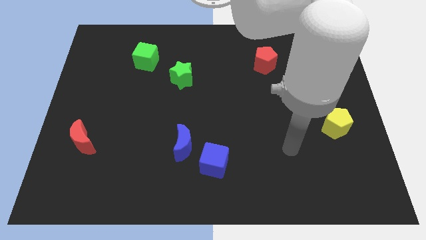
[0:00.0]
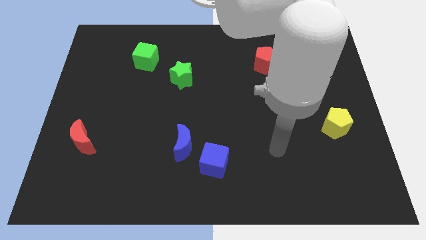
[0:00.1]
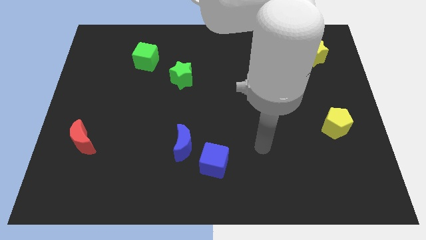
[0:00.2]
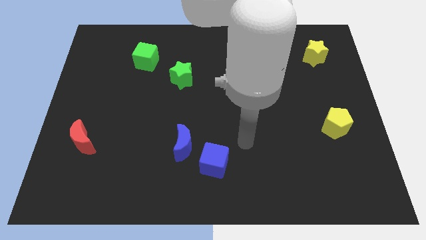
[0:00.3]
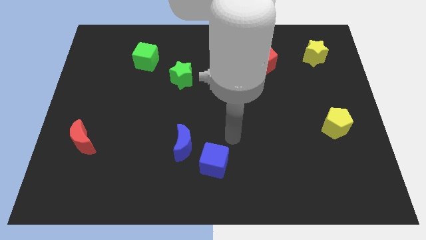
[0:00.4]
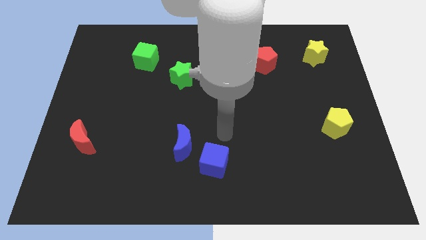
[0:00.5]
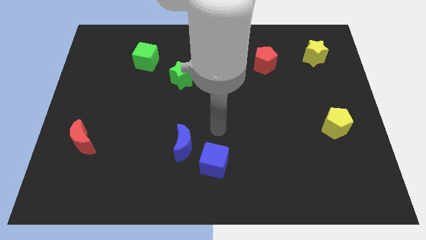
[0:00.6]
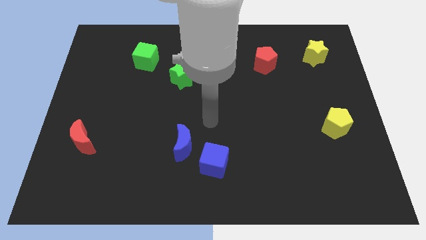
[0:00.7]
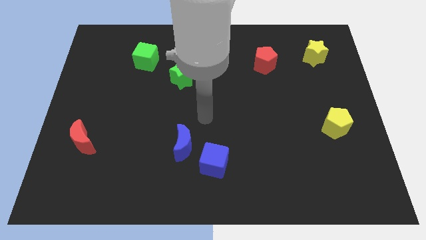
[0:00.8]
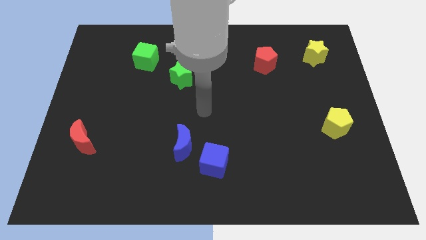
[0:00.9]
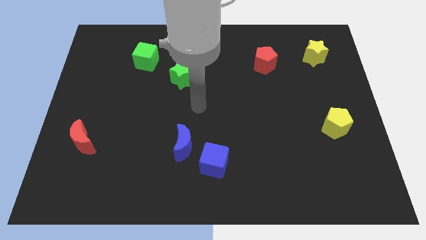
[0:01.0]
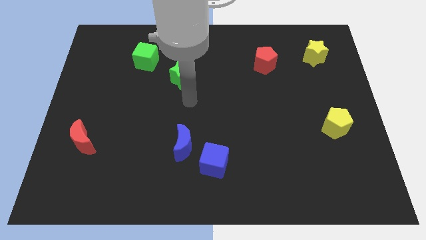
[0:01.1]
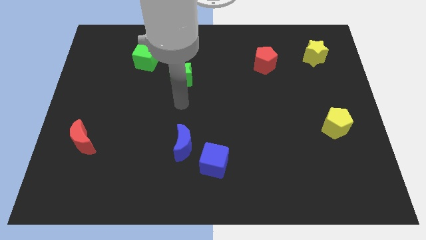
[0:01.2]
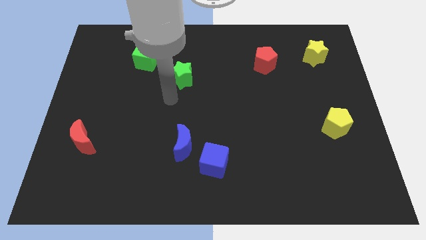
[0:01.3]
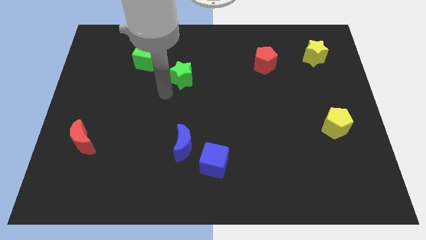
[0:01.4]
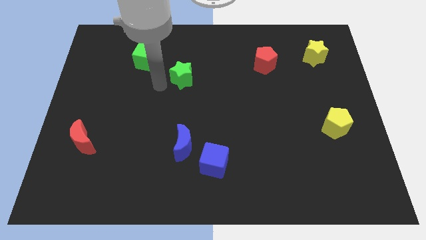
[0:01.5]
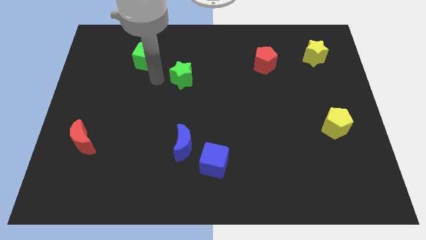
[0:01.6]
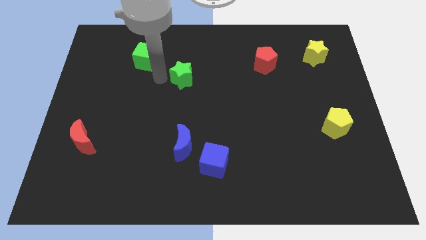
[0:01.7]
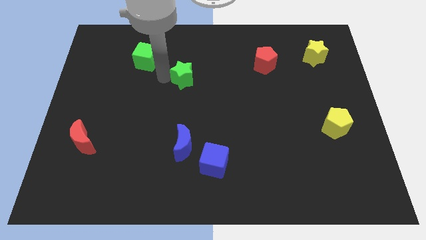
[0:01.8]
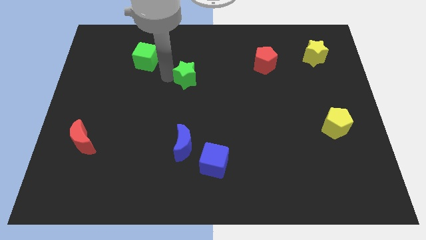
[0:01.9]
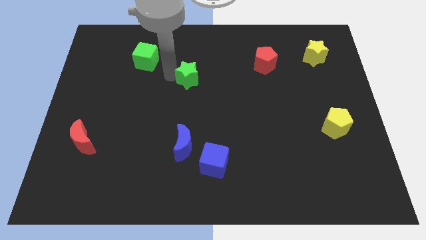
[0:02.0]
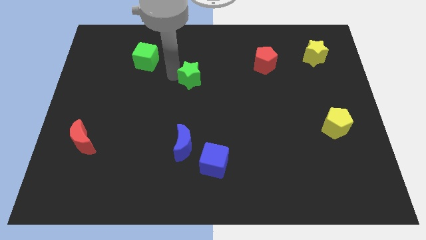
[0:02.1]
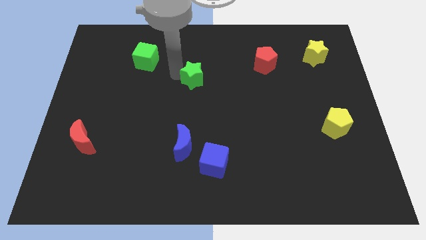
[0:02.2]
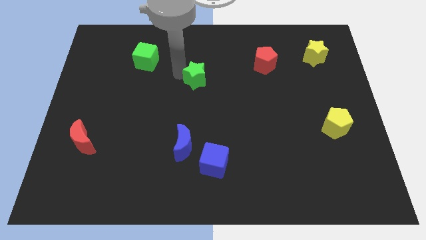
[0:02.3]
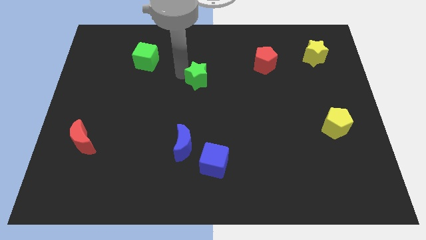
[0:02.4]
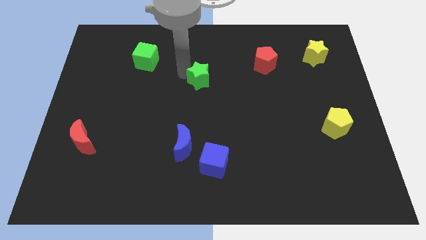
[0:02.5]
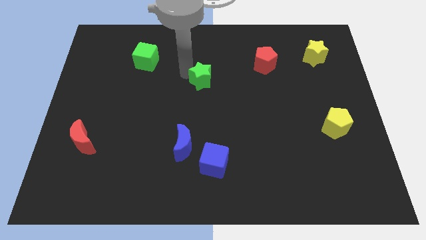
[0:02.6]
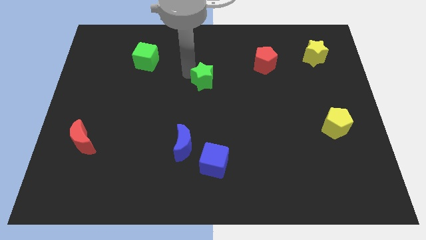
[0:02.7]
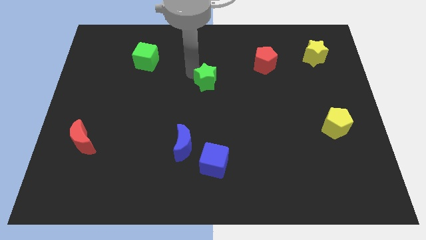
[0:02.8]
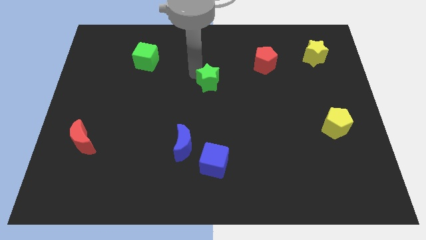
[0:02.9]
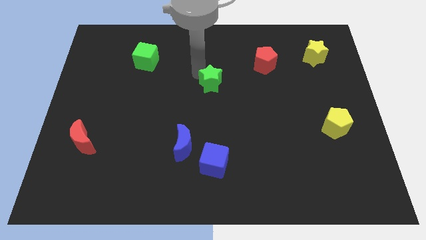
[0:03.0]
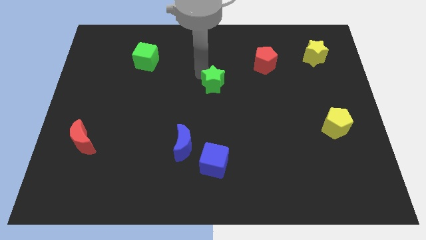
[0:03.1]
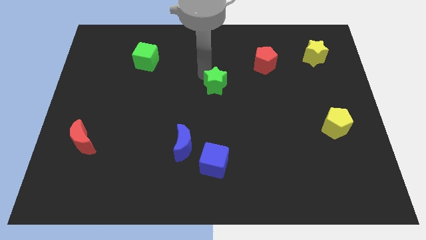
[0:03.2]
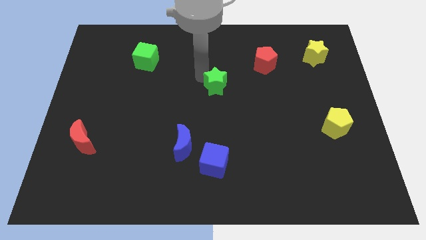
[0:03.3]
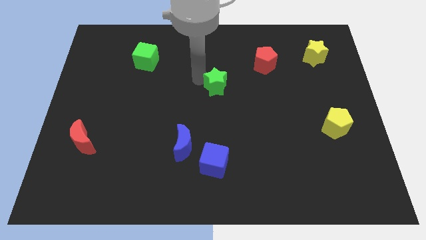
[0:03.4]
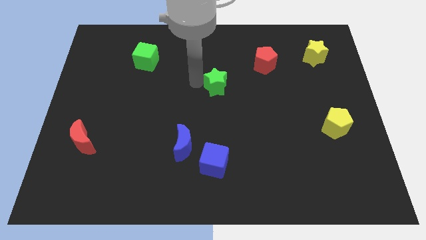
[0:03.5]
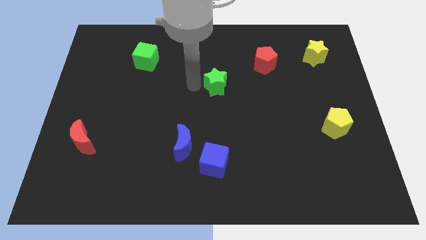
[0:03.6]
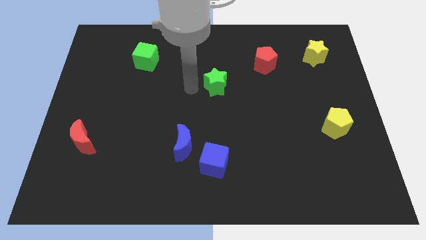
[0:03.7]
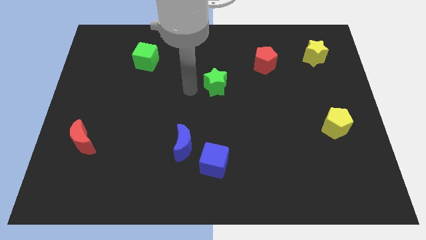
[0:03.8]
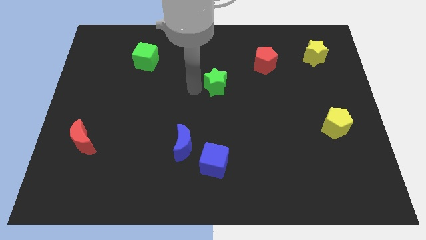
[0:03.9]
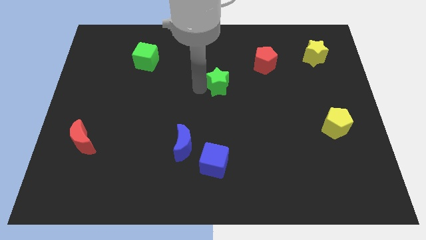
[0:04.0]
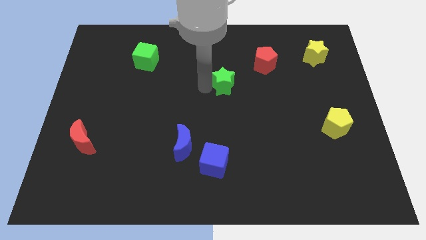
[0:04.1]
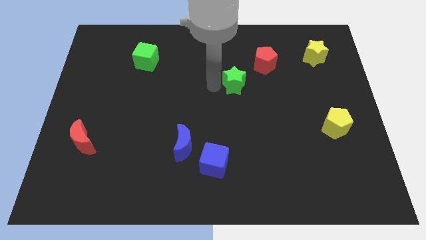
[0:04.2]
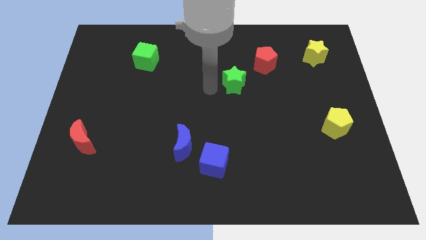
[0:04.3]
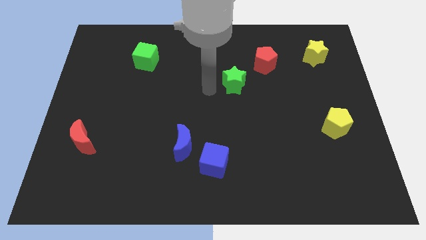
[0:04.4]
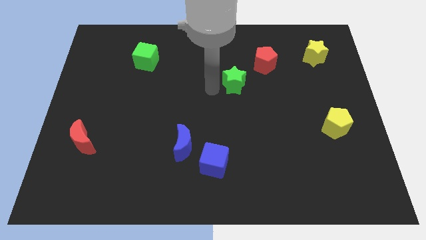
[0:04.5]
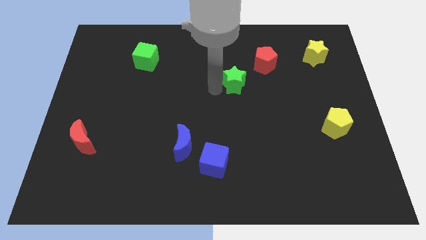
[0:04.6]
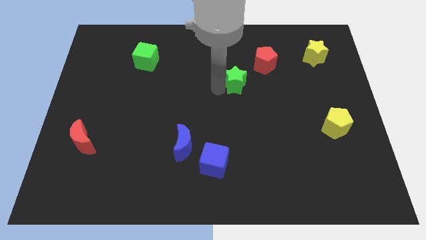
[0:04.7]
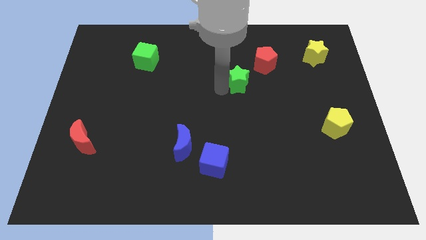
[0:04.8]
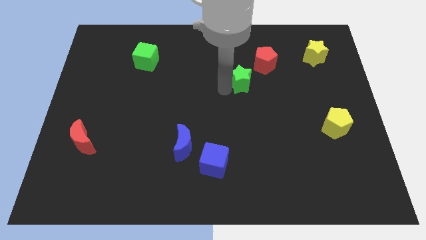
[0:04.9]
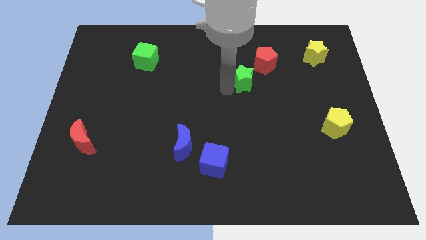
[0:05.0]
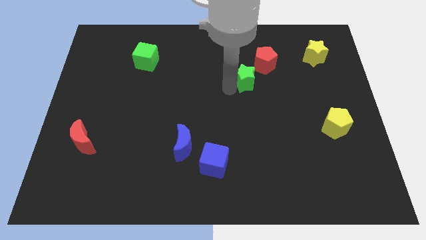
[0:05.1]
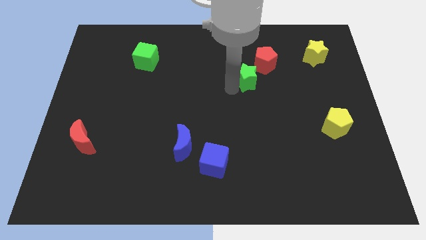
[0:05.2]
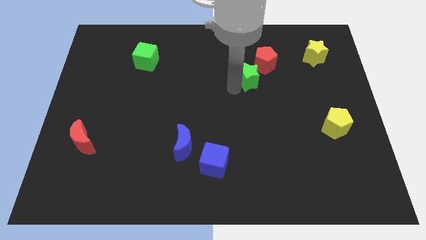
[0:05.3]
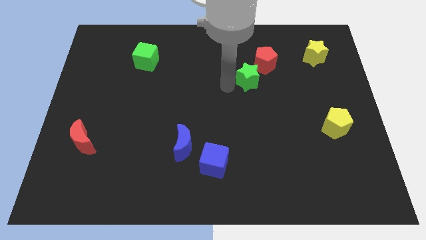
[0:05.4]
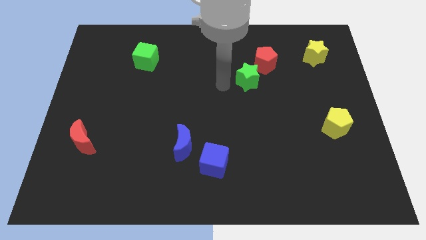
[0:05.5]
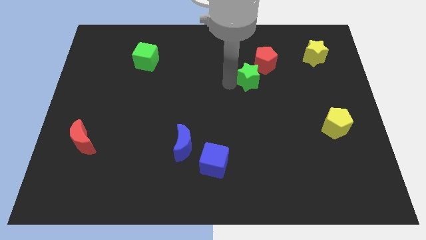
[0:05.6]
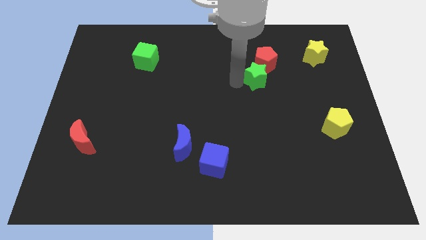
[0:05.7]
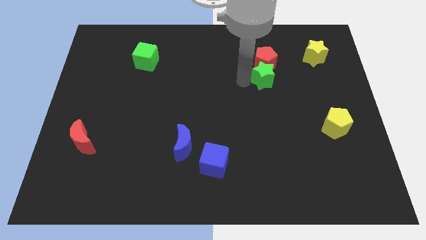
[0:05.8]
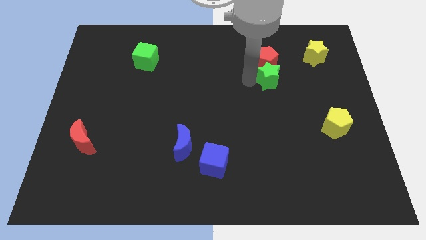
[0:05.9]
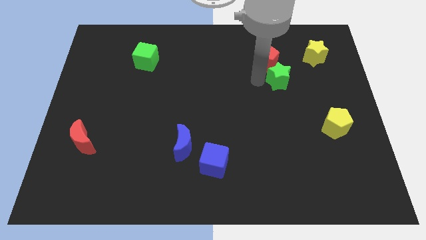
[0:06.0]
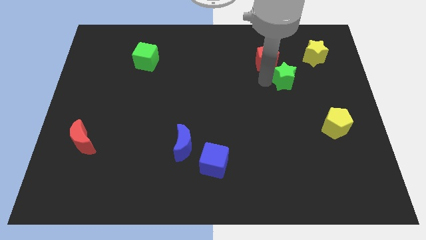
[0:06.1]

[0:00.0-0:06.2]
move the green star diagonally down and to the left of the yellow star

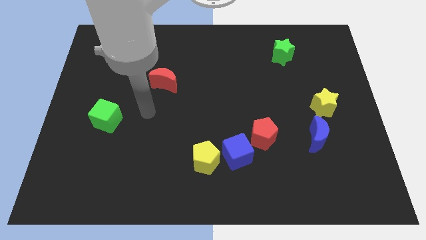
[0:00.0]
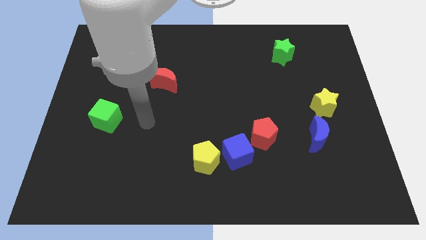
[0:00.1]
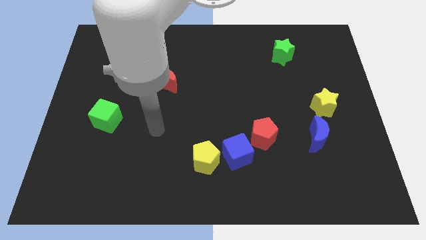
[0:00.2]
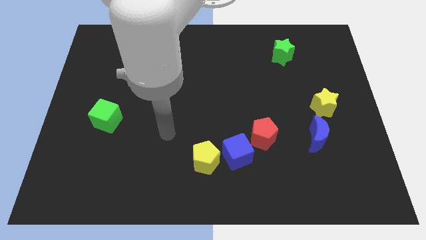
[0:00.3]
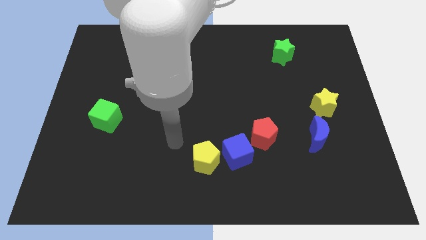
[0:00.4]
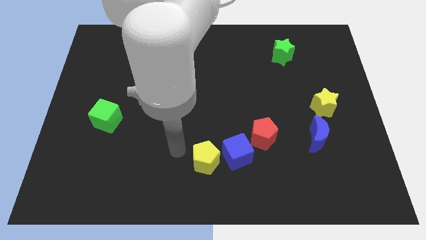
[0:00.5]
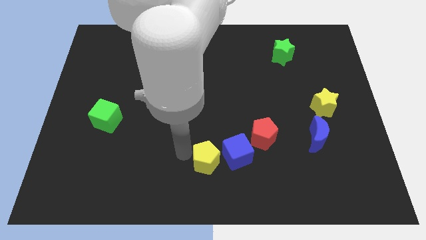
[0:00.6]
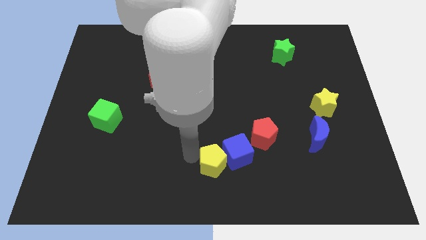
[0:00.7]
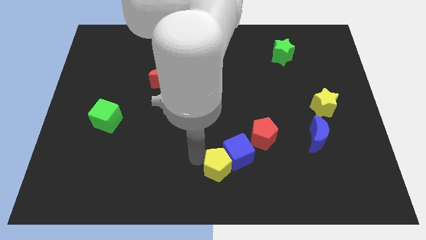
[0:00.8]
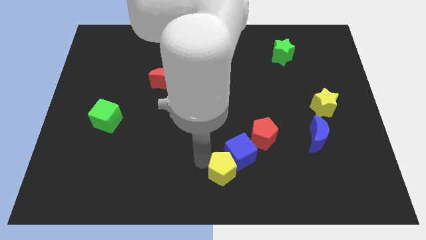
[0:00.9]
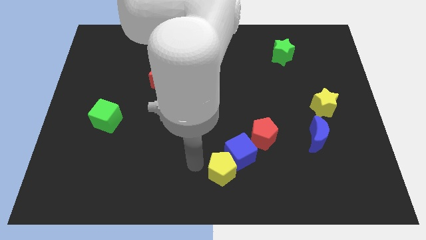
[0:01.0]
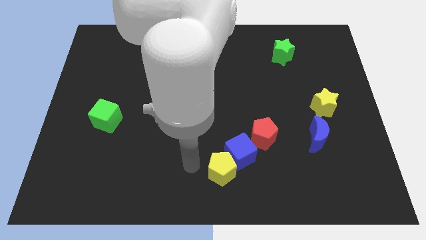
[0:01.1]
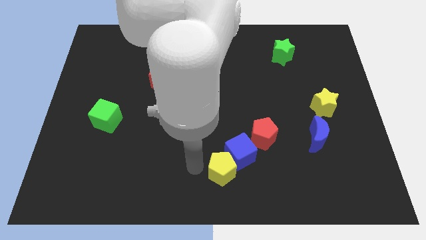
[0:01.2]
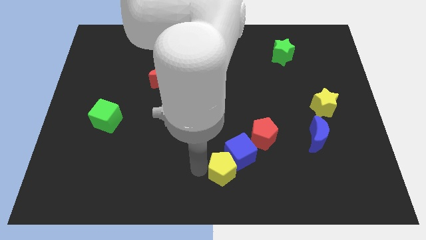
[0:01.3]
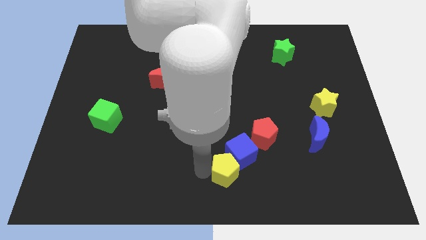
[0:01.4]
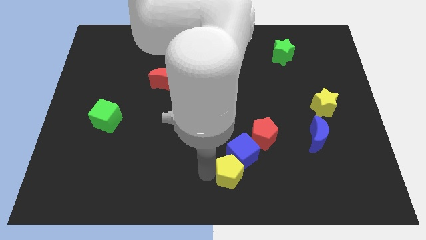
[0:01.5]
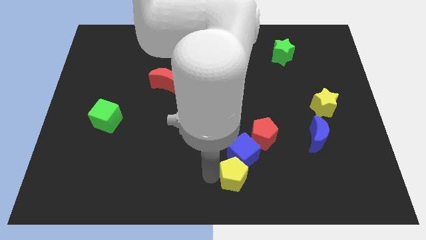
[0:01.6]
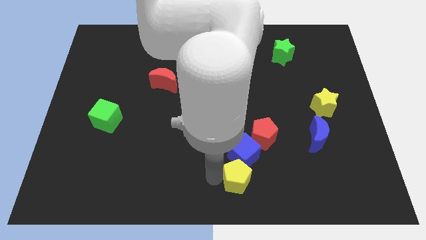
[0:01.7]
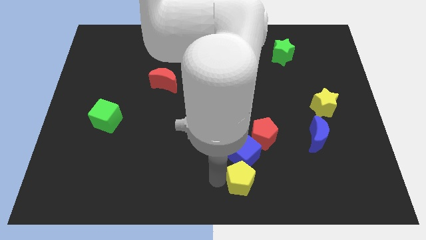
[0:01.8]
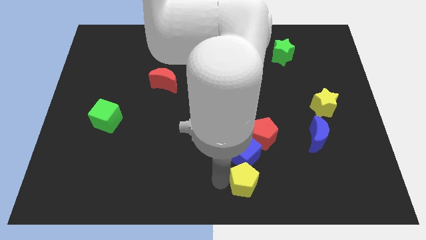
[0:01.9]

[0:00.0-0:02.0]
put the yellow pentagon to the bottom of the red pentagon
